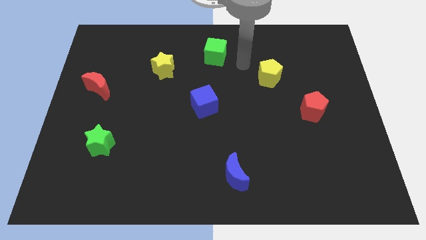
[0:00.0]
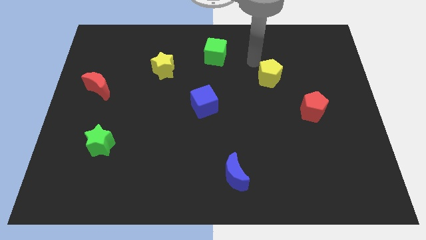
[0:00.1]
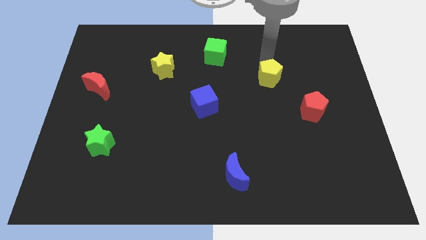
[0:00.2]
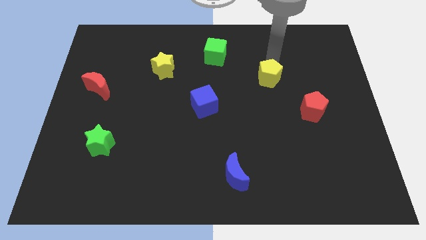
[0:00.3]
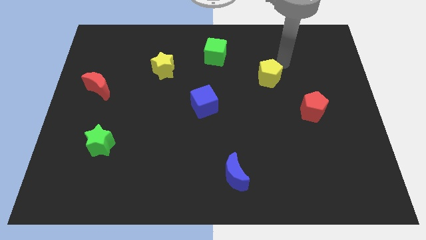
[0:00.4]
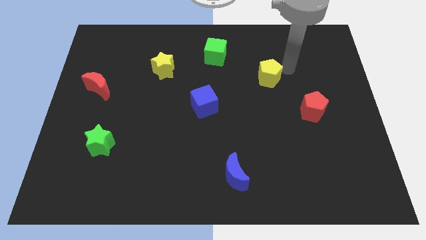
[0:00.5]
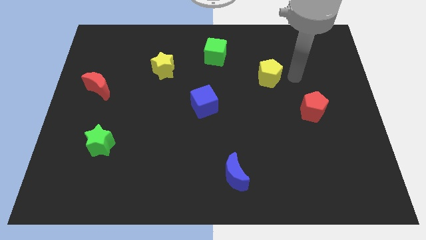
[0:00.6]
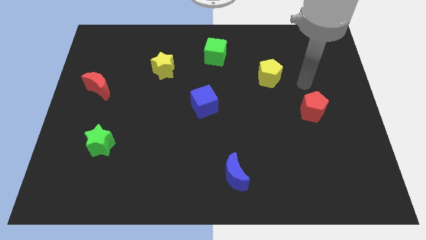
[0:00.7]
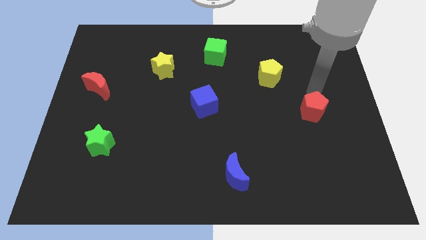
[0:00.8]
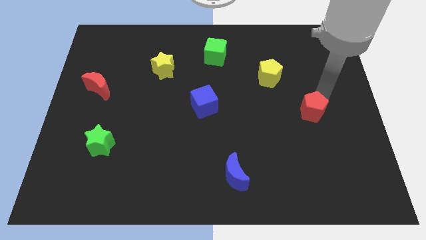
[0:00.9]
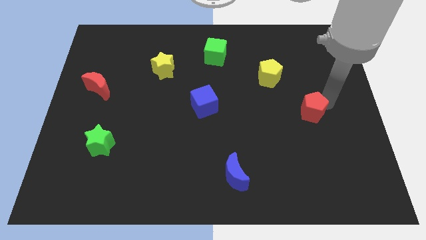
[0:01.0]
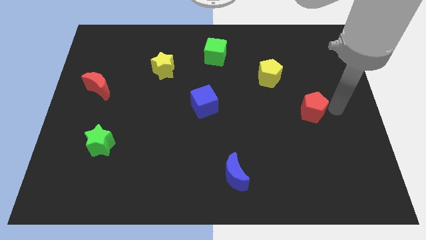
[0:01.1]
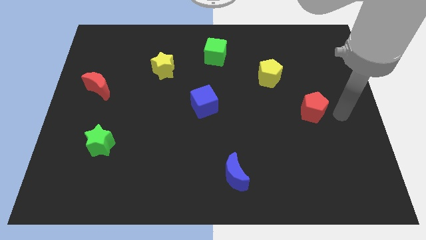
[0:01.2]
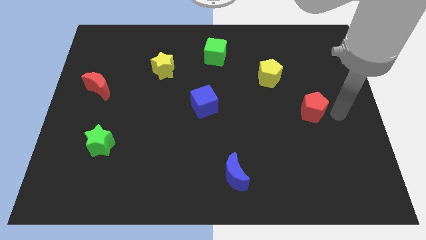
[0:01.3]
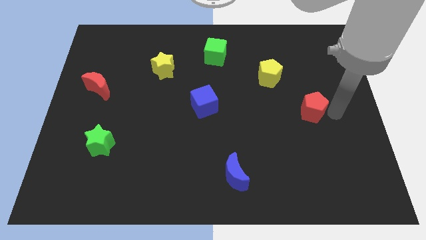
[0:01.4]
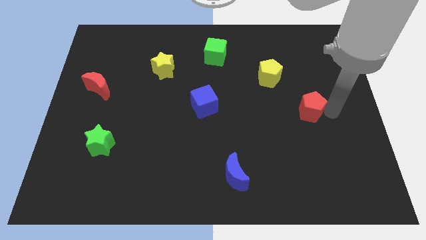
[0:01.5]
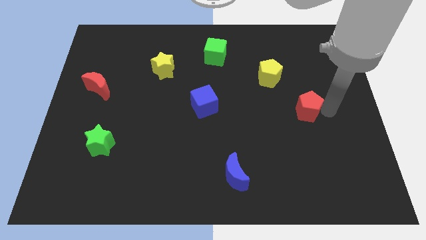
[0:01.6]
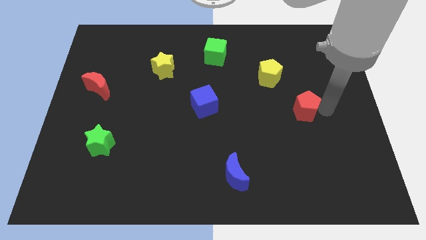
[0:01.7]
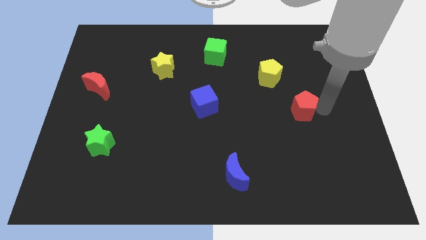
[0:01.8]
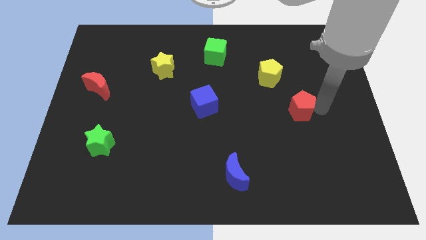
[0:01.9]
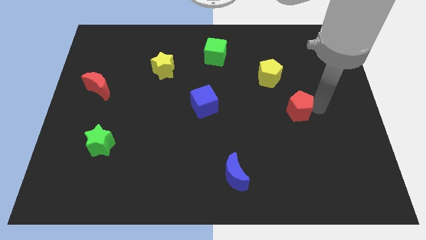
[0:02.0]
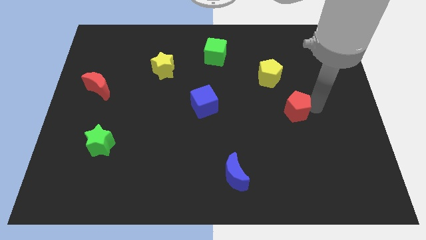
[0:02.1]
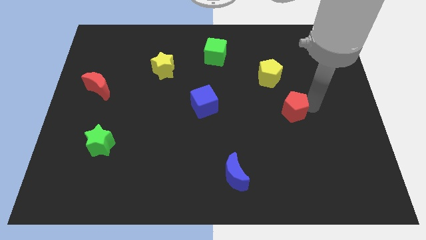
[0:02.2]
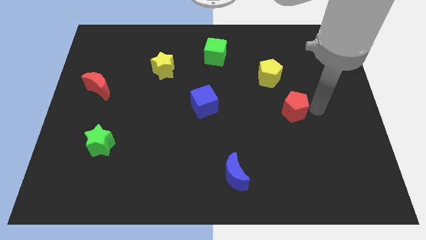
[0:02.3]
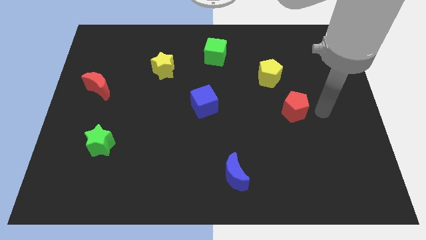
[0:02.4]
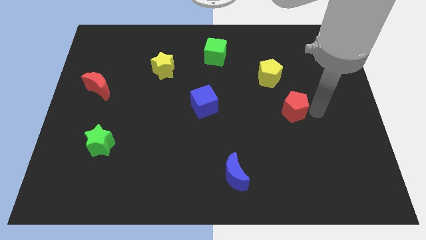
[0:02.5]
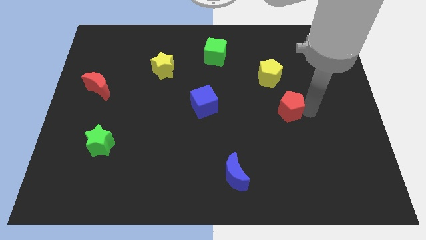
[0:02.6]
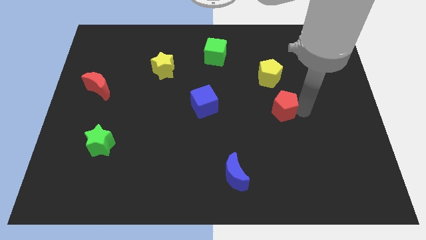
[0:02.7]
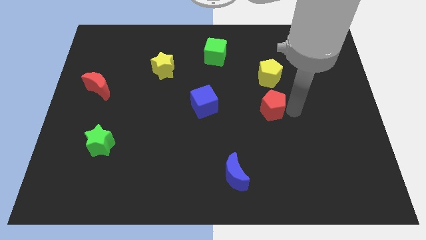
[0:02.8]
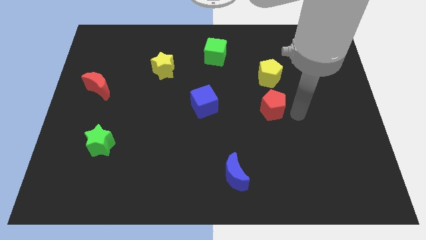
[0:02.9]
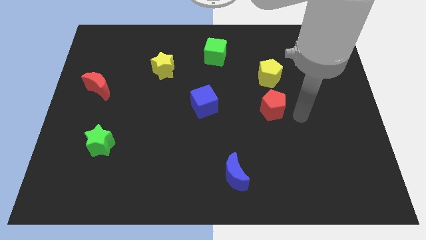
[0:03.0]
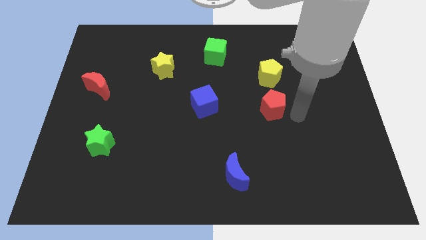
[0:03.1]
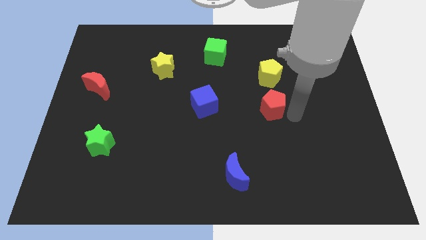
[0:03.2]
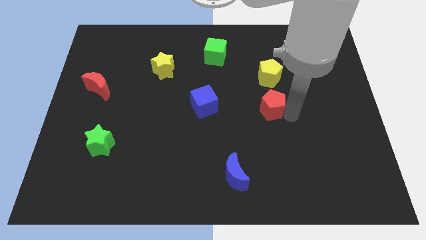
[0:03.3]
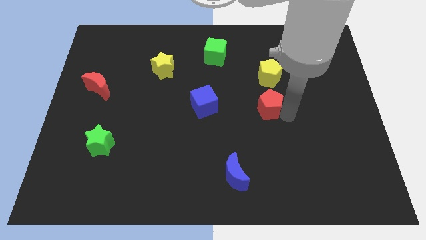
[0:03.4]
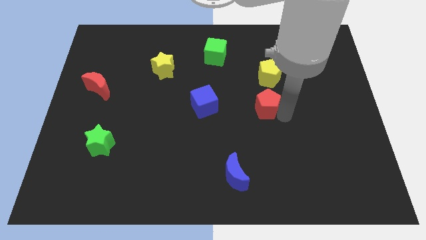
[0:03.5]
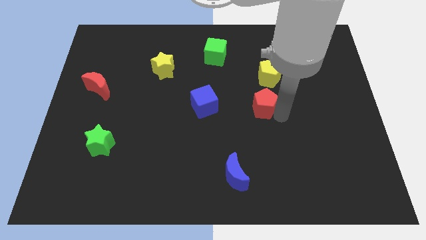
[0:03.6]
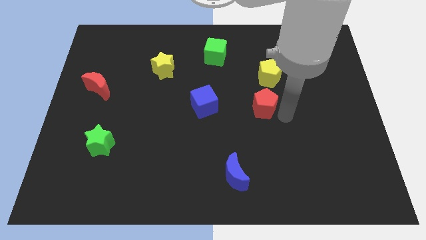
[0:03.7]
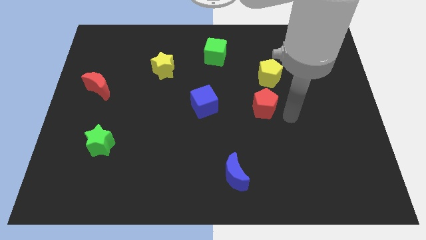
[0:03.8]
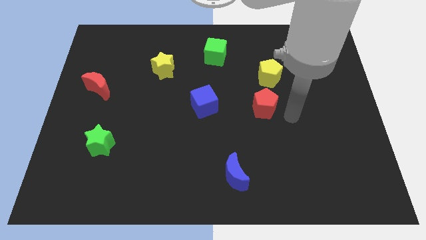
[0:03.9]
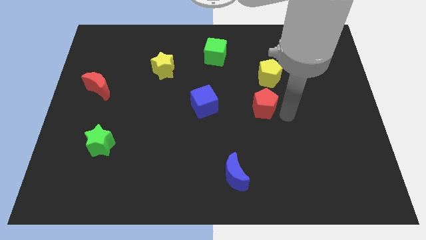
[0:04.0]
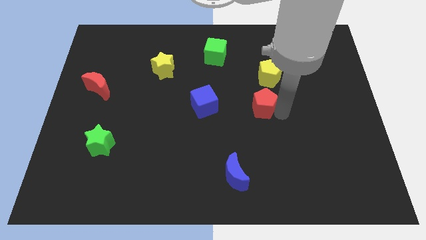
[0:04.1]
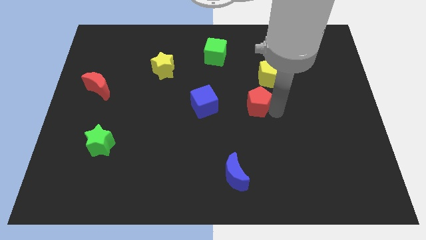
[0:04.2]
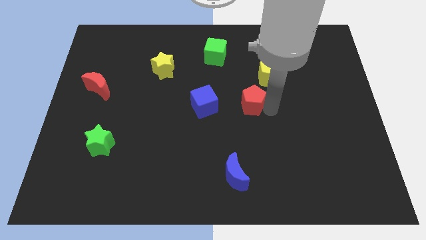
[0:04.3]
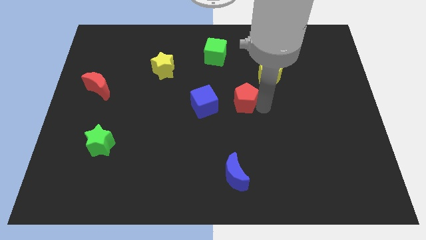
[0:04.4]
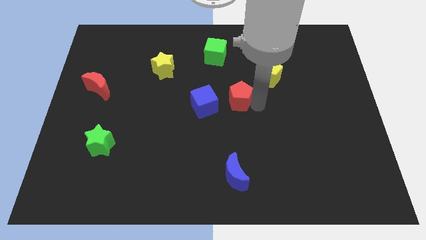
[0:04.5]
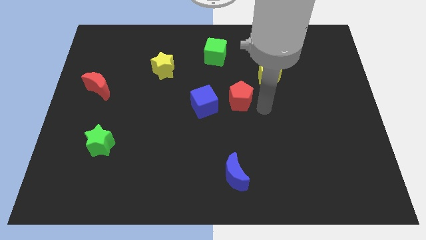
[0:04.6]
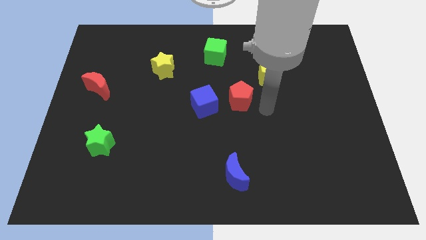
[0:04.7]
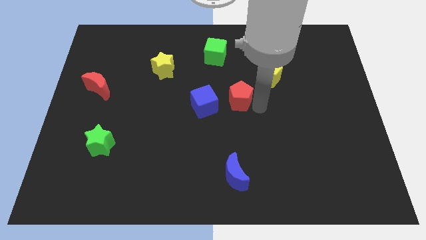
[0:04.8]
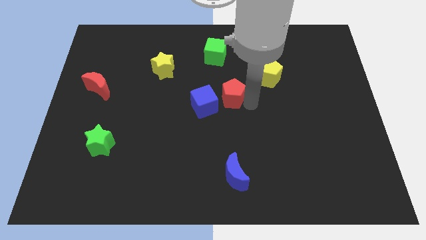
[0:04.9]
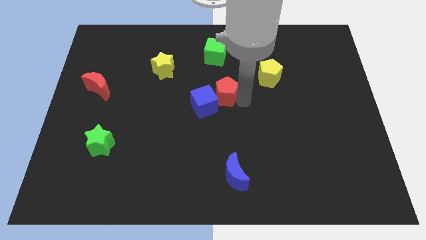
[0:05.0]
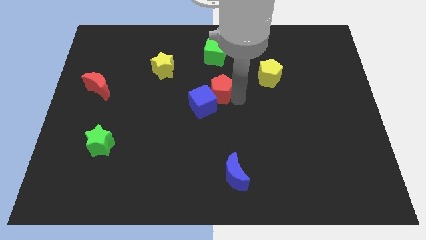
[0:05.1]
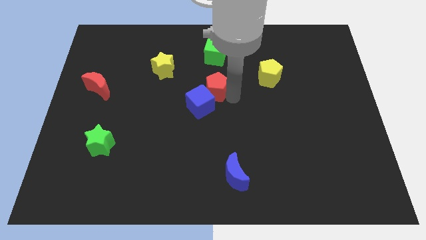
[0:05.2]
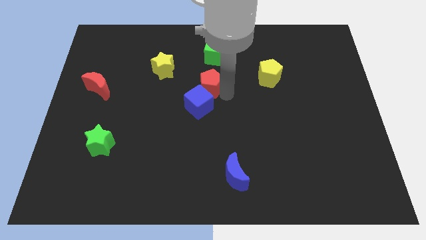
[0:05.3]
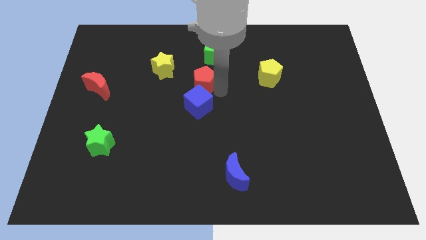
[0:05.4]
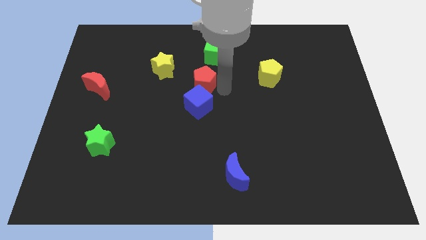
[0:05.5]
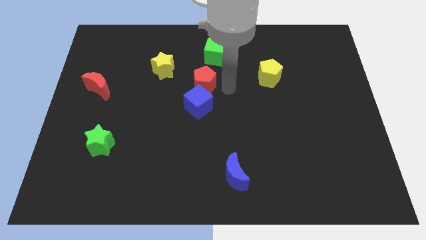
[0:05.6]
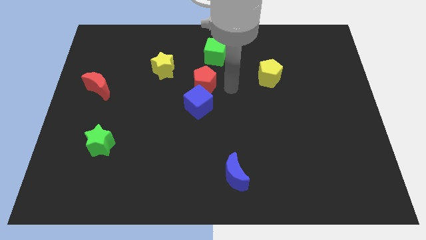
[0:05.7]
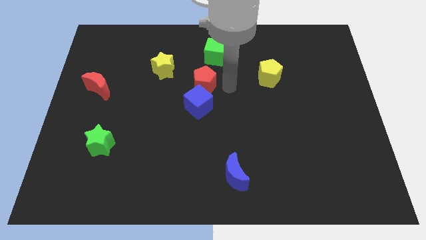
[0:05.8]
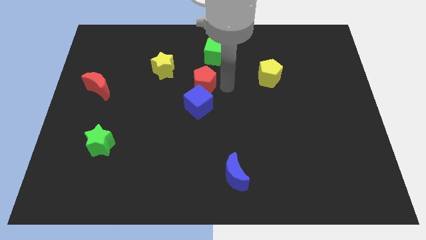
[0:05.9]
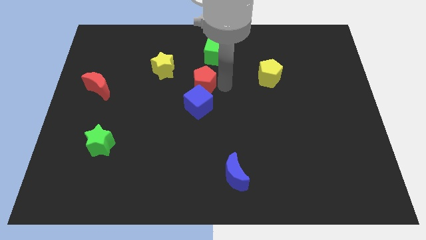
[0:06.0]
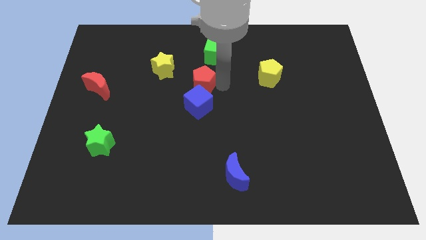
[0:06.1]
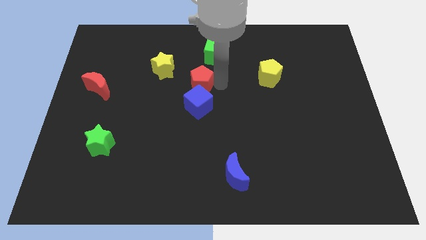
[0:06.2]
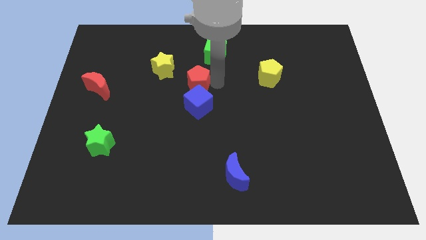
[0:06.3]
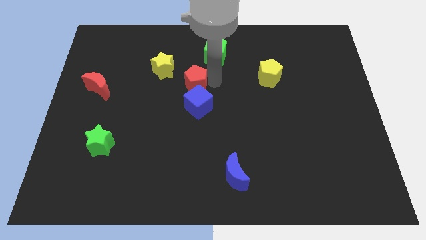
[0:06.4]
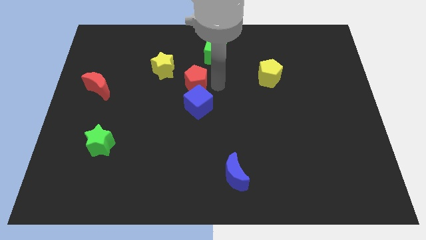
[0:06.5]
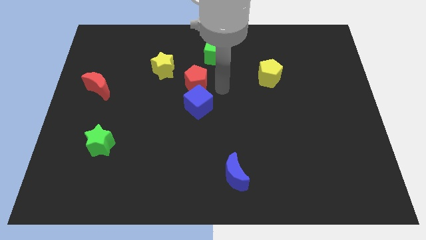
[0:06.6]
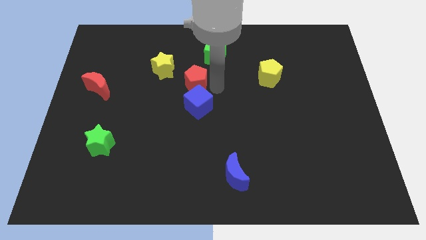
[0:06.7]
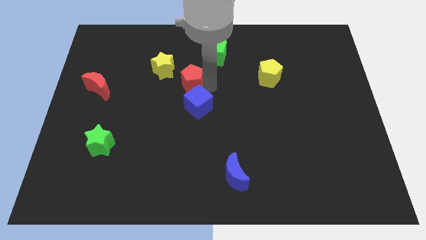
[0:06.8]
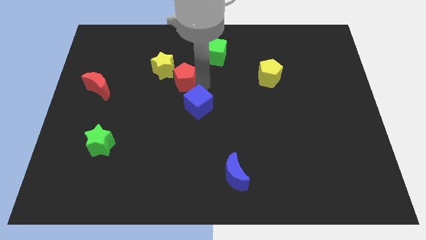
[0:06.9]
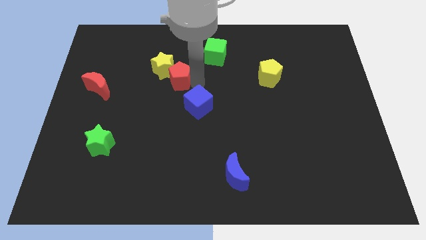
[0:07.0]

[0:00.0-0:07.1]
put the red pentagon next to the yellow star
